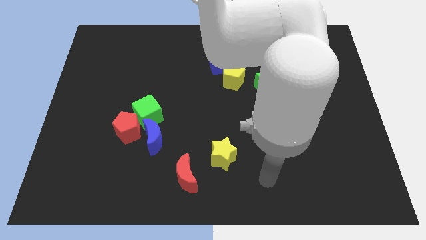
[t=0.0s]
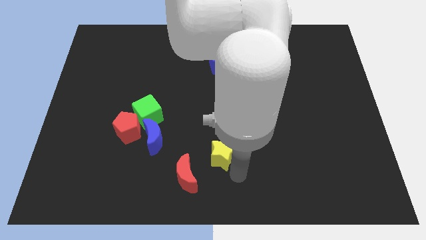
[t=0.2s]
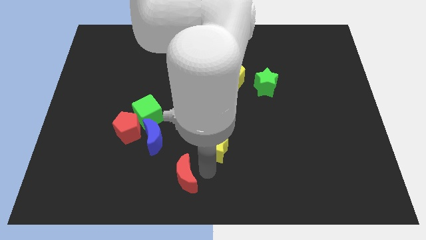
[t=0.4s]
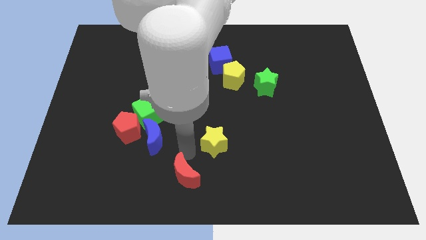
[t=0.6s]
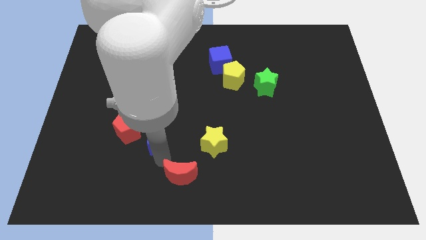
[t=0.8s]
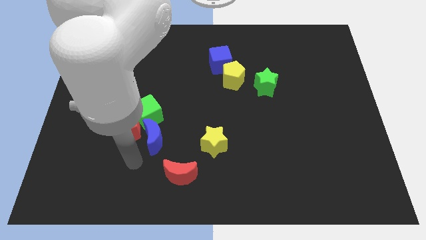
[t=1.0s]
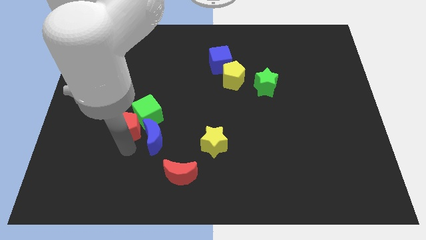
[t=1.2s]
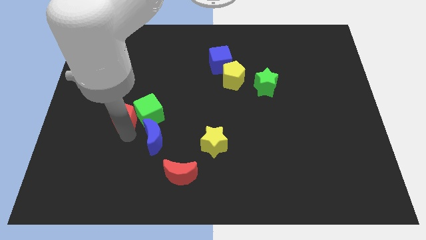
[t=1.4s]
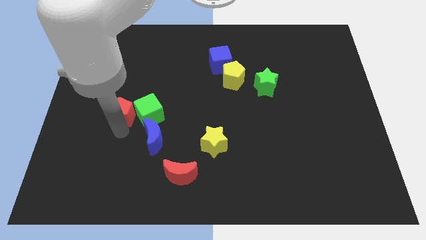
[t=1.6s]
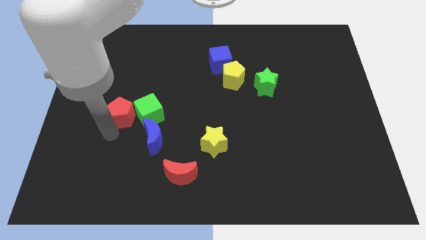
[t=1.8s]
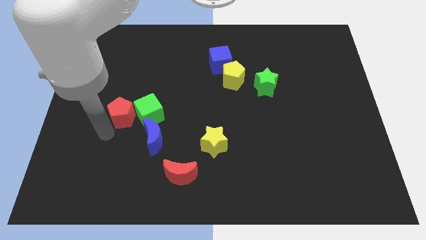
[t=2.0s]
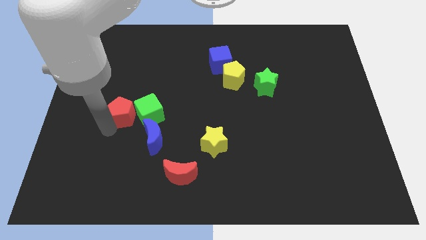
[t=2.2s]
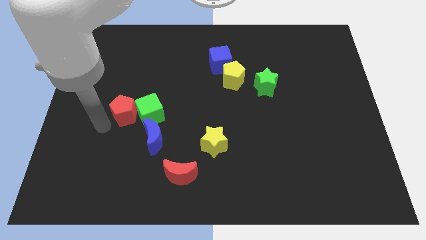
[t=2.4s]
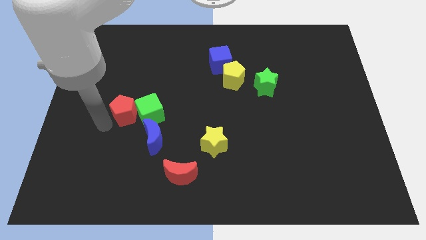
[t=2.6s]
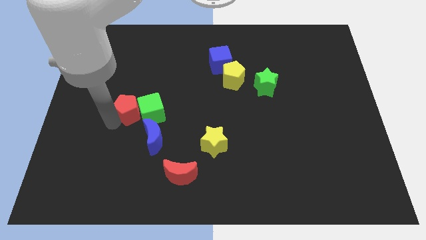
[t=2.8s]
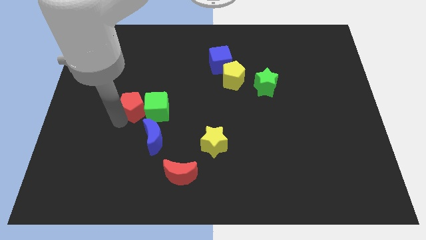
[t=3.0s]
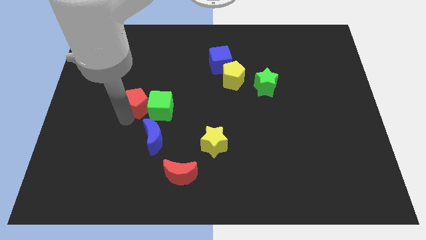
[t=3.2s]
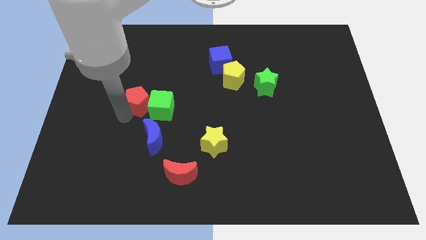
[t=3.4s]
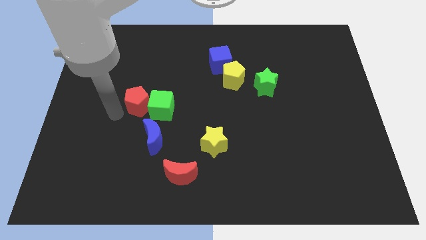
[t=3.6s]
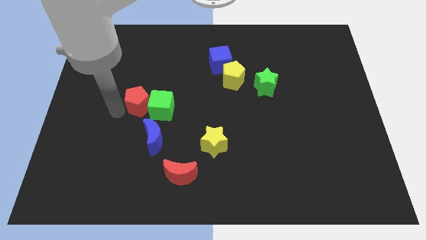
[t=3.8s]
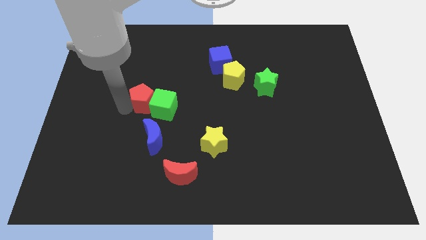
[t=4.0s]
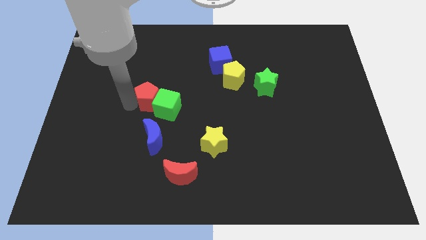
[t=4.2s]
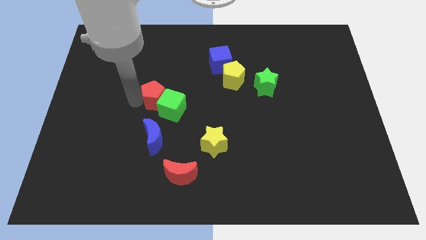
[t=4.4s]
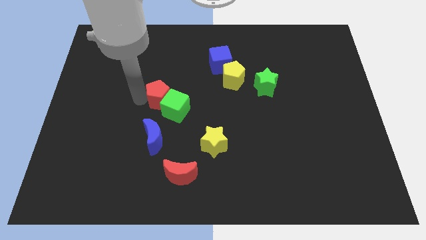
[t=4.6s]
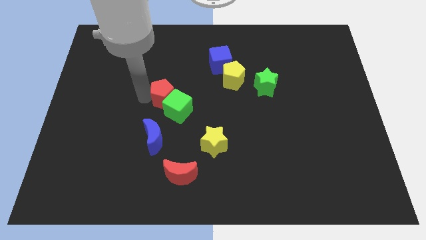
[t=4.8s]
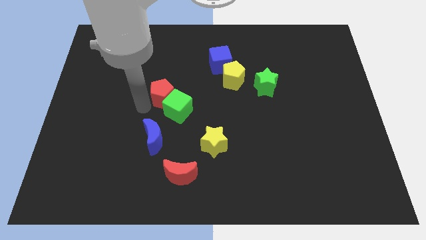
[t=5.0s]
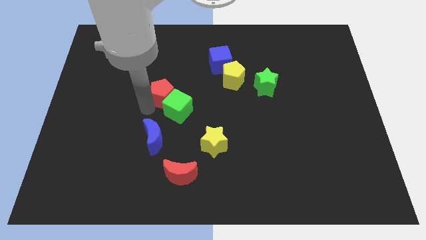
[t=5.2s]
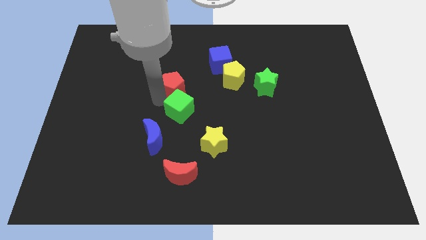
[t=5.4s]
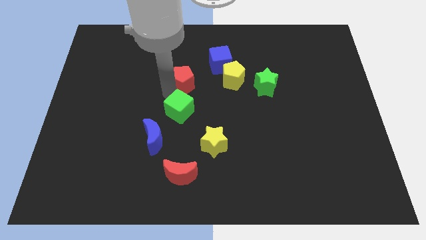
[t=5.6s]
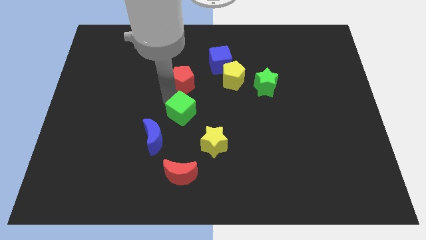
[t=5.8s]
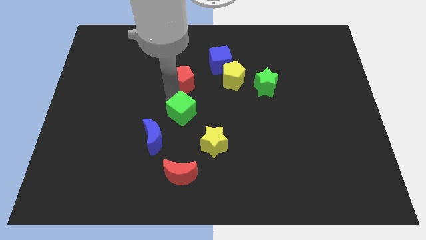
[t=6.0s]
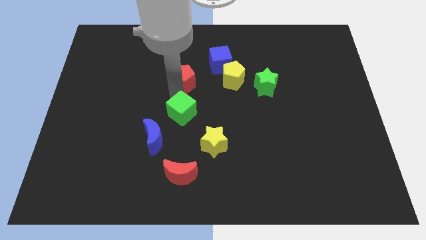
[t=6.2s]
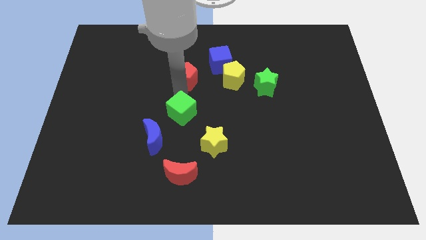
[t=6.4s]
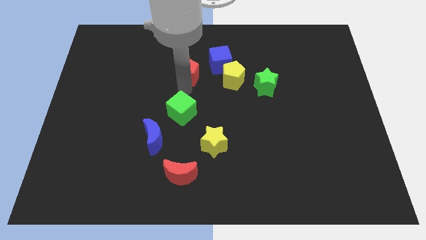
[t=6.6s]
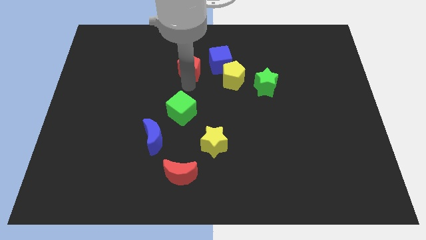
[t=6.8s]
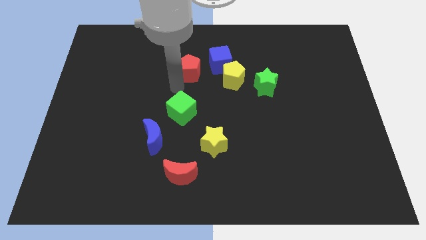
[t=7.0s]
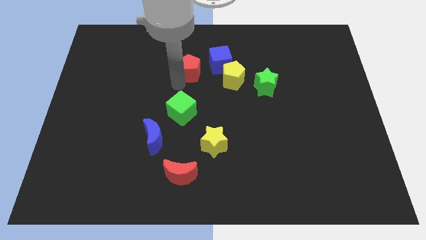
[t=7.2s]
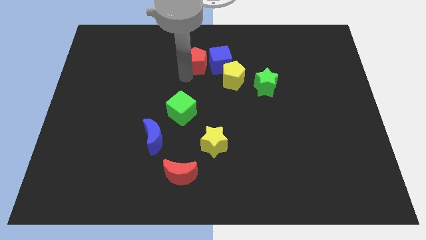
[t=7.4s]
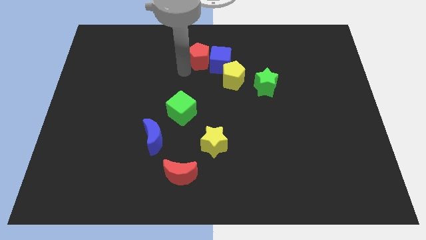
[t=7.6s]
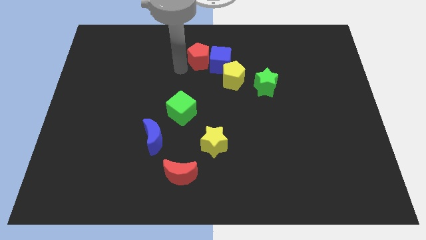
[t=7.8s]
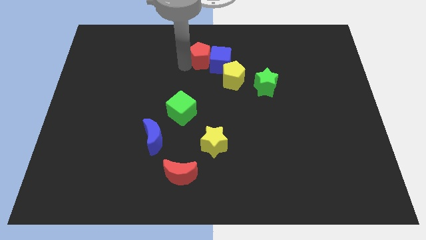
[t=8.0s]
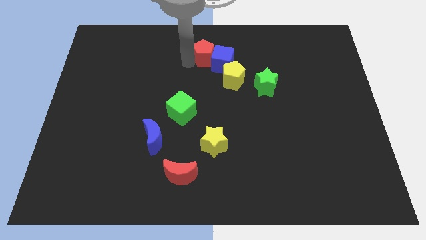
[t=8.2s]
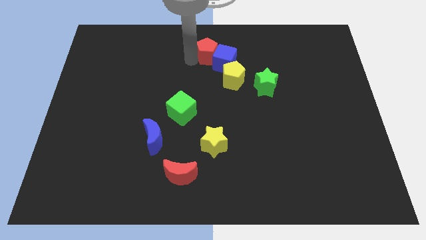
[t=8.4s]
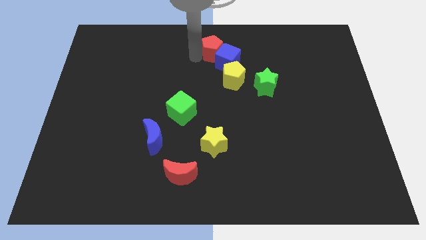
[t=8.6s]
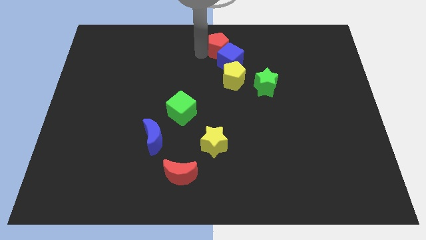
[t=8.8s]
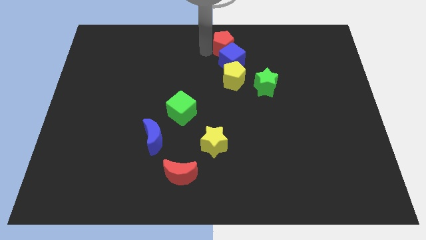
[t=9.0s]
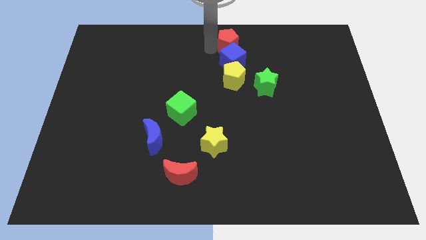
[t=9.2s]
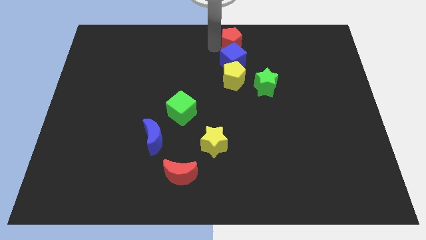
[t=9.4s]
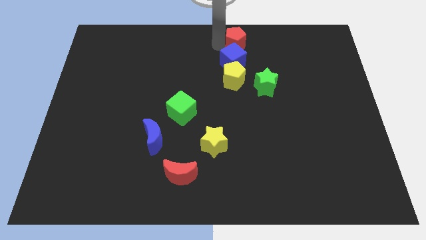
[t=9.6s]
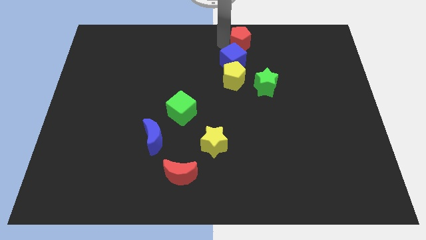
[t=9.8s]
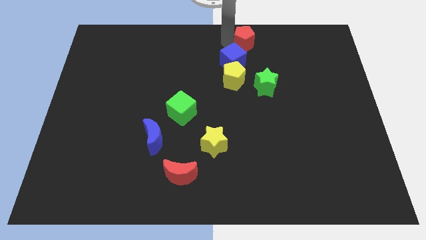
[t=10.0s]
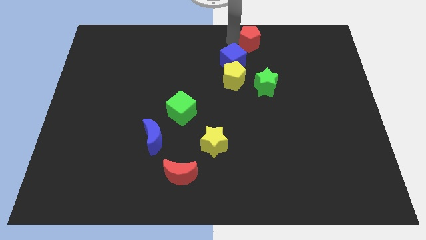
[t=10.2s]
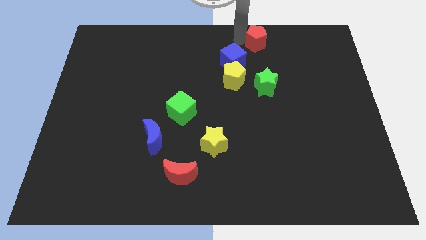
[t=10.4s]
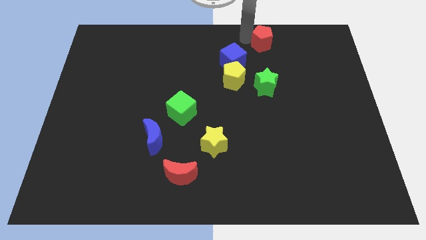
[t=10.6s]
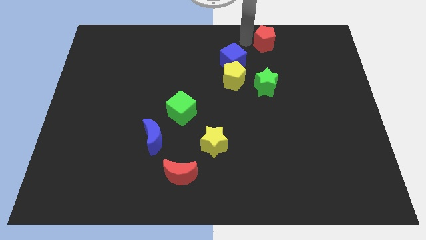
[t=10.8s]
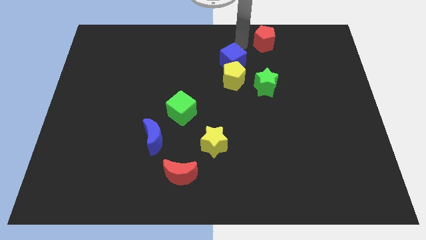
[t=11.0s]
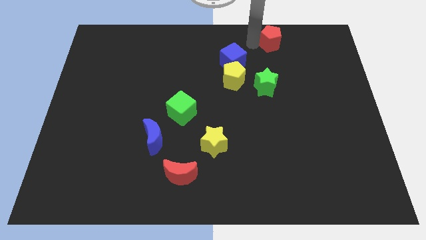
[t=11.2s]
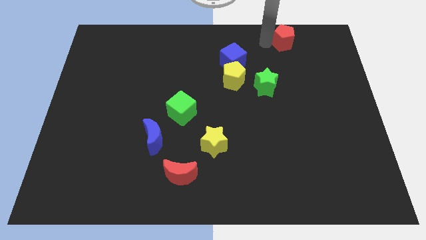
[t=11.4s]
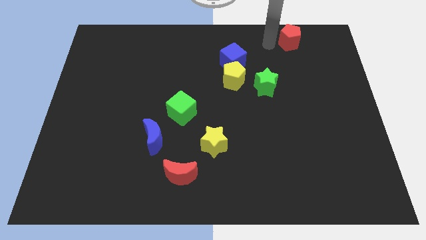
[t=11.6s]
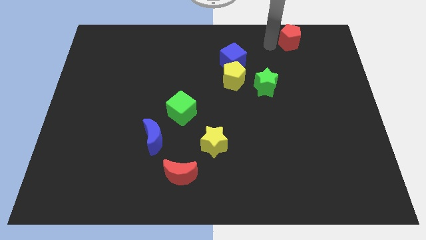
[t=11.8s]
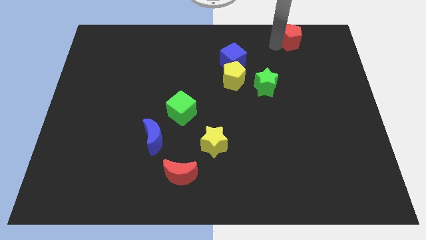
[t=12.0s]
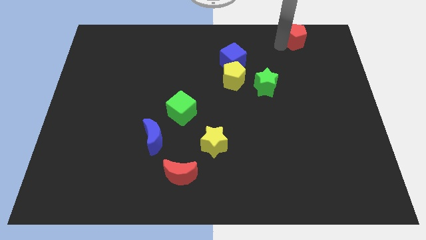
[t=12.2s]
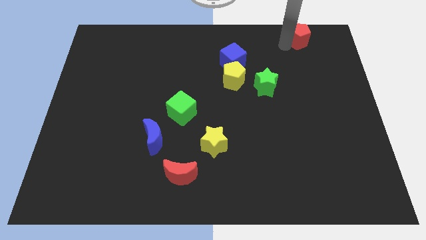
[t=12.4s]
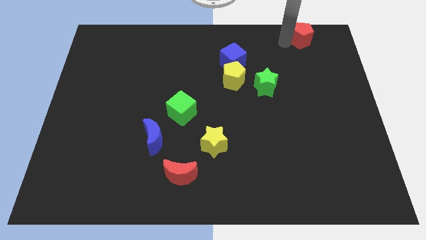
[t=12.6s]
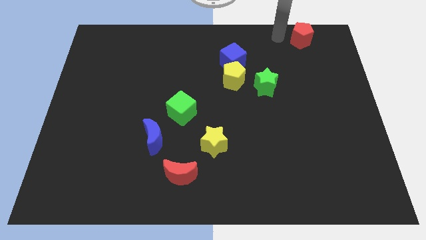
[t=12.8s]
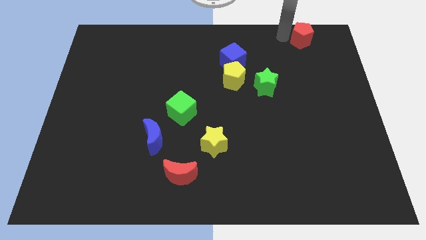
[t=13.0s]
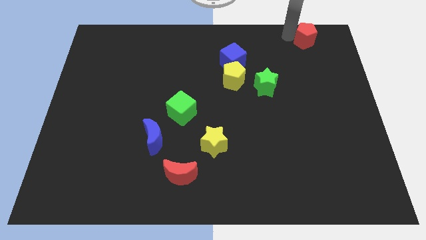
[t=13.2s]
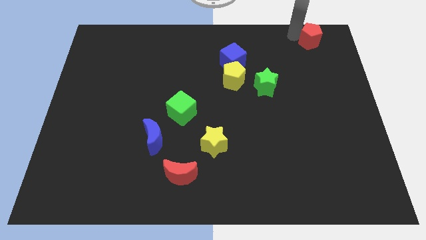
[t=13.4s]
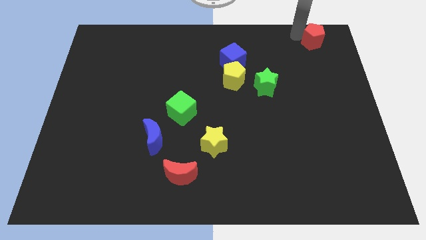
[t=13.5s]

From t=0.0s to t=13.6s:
push the red pentagon to the top right
